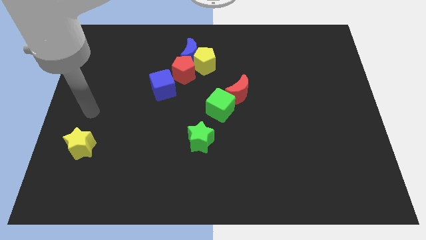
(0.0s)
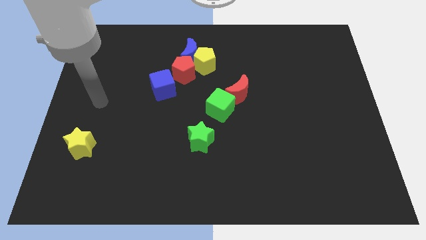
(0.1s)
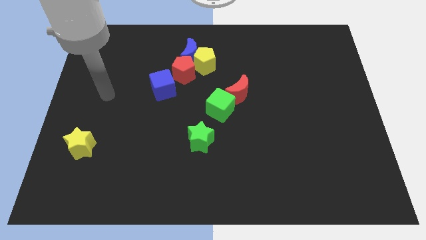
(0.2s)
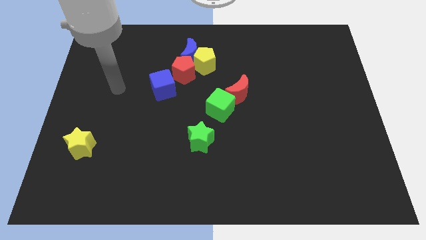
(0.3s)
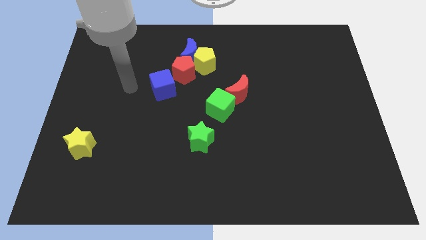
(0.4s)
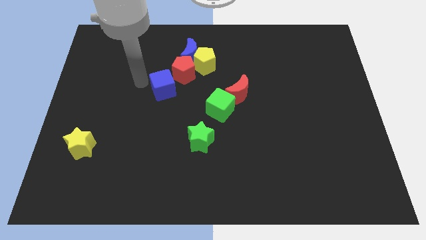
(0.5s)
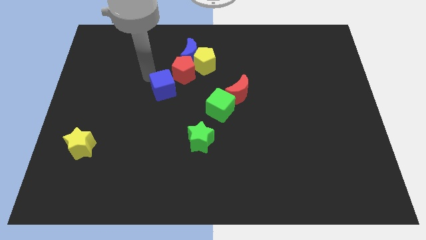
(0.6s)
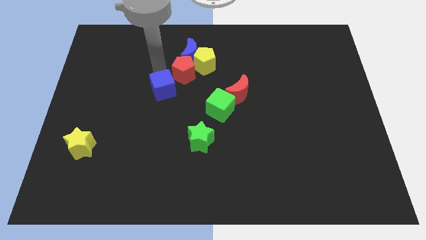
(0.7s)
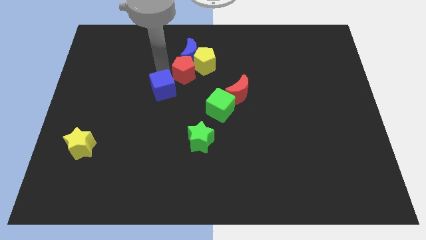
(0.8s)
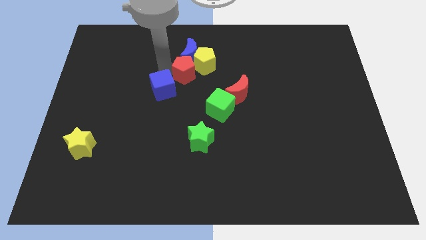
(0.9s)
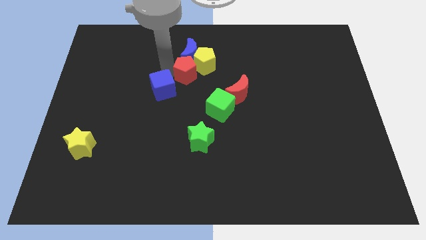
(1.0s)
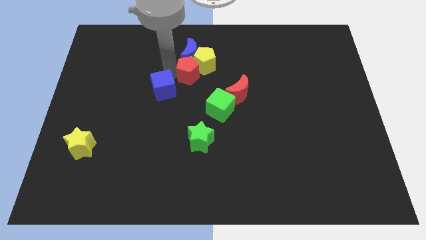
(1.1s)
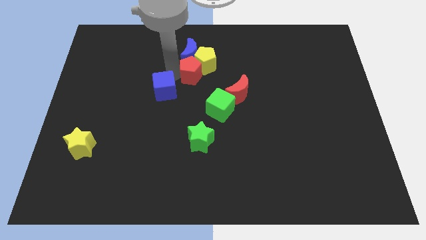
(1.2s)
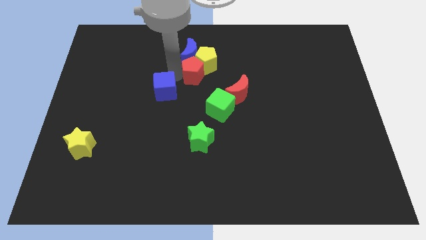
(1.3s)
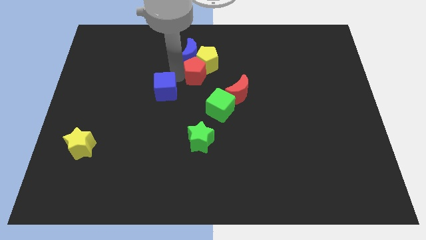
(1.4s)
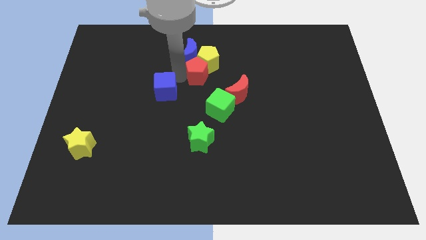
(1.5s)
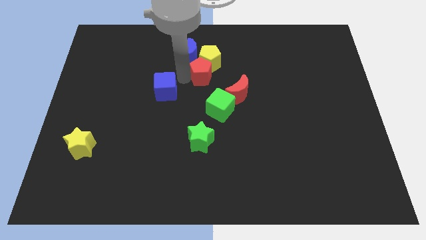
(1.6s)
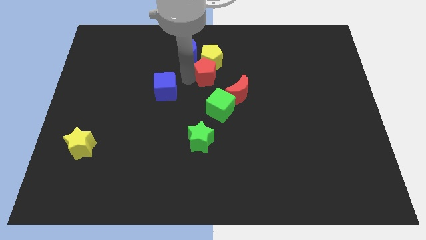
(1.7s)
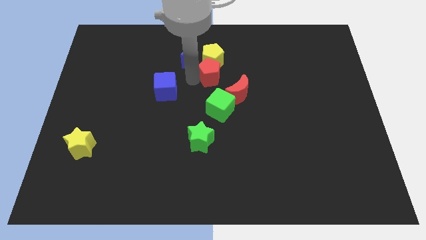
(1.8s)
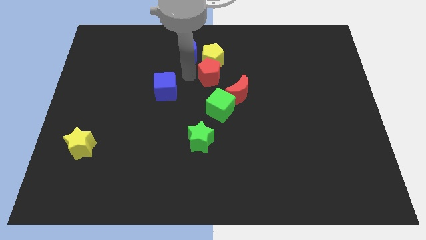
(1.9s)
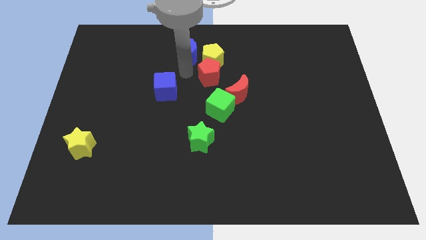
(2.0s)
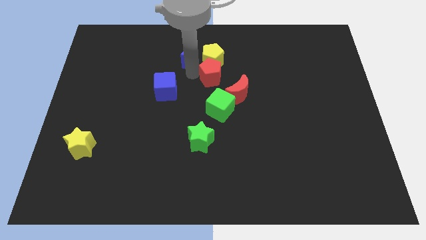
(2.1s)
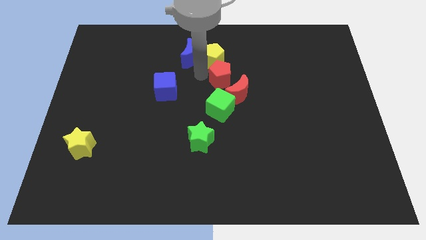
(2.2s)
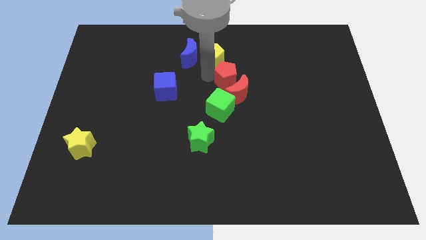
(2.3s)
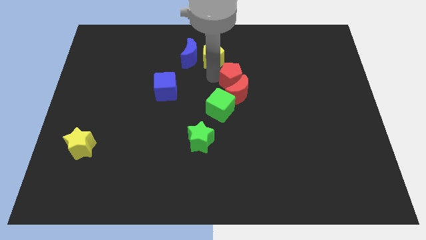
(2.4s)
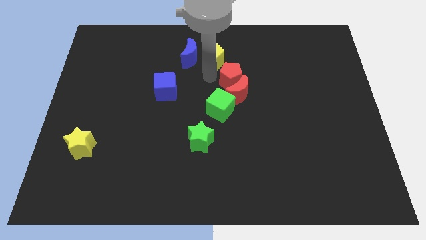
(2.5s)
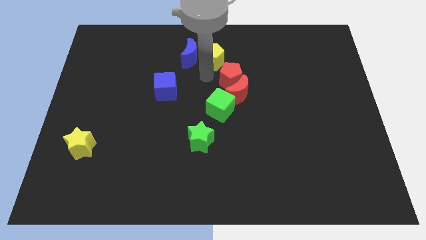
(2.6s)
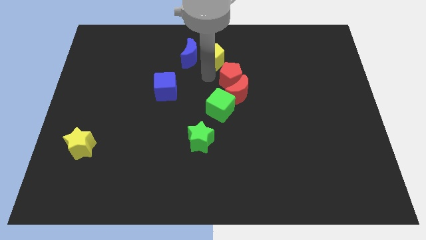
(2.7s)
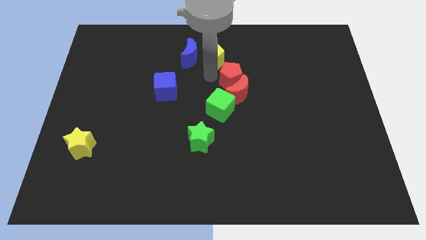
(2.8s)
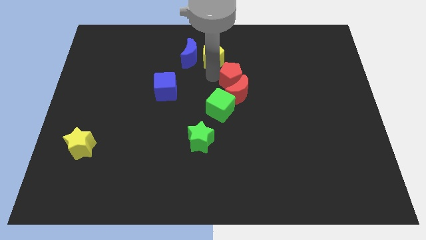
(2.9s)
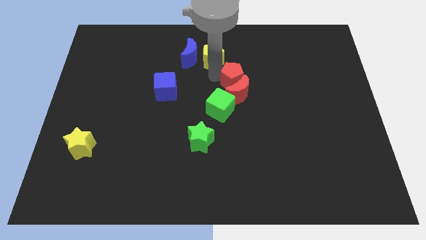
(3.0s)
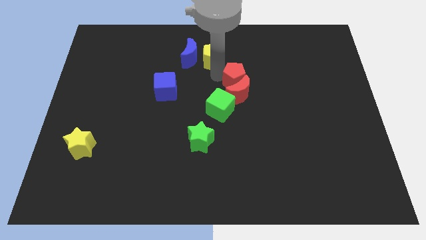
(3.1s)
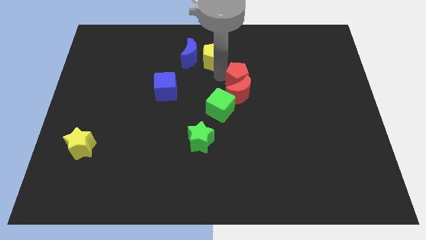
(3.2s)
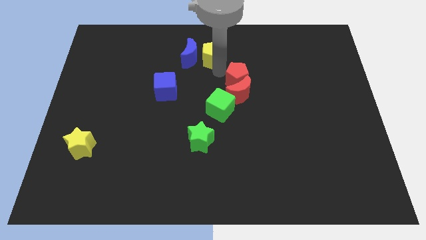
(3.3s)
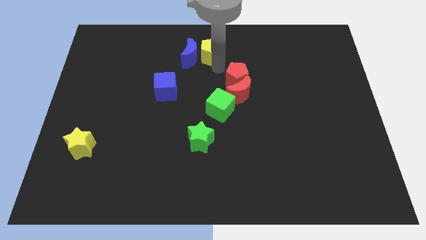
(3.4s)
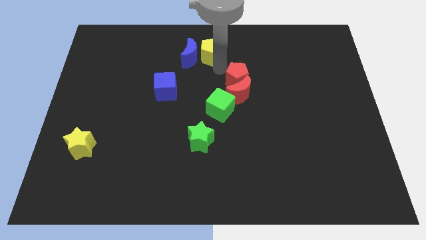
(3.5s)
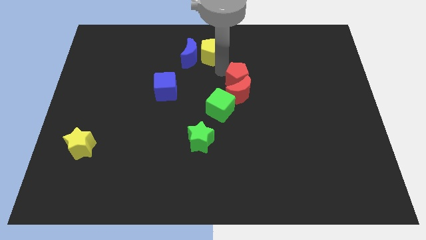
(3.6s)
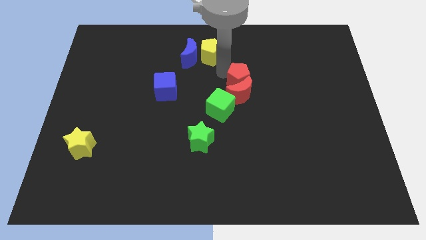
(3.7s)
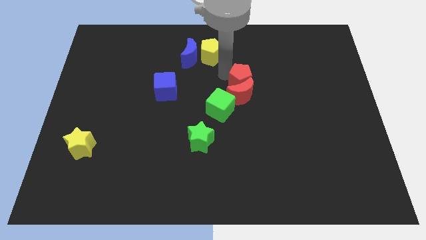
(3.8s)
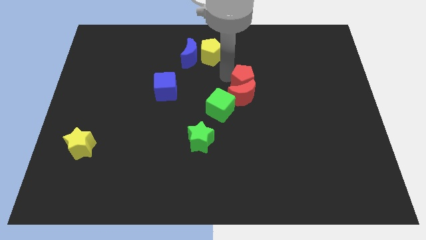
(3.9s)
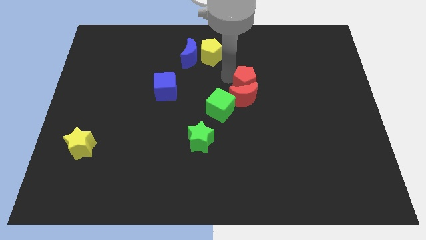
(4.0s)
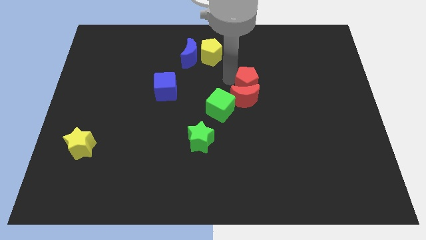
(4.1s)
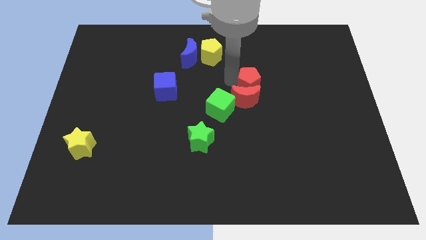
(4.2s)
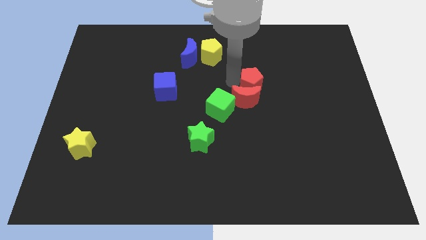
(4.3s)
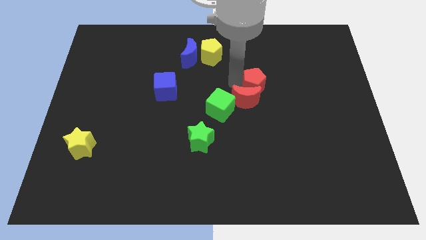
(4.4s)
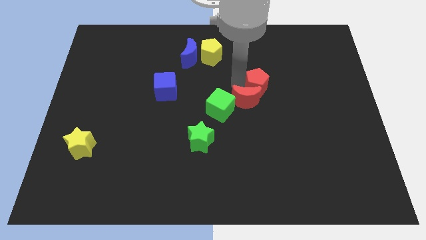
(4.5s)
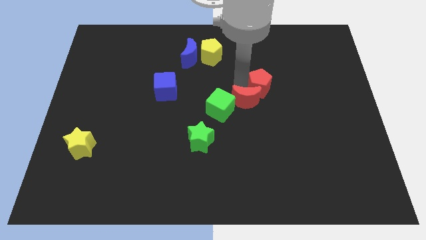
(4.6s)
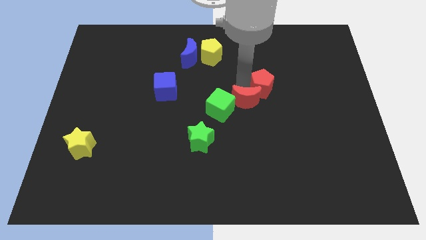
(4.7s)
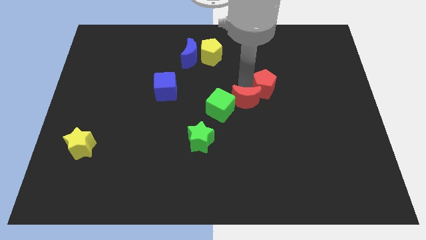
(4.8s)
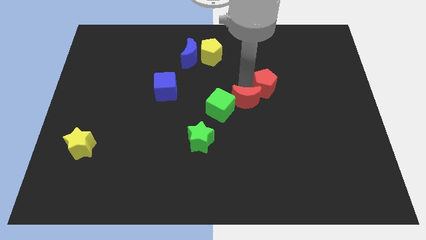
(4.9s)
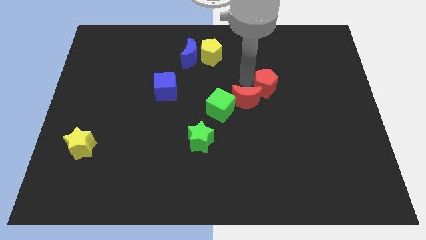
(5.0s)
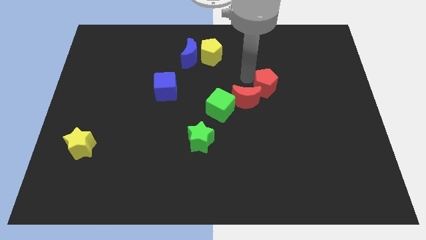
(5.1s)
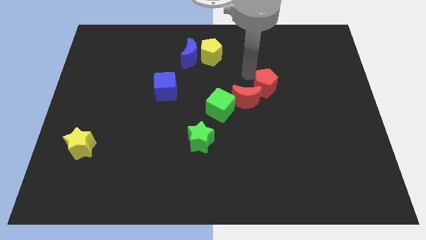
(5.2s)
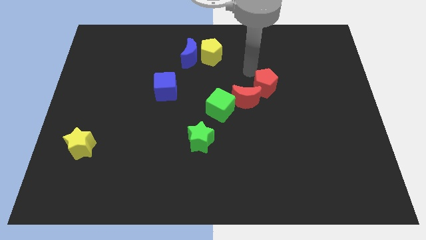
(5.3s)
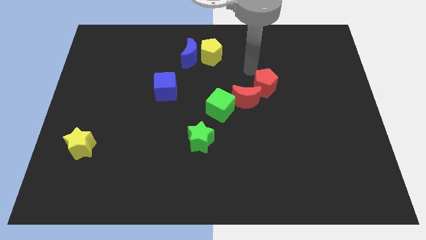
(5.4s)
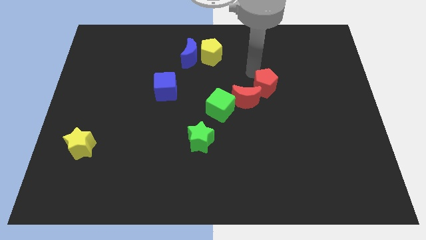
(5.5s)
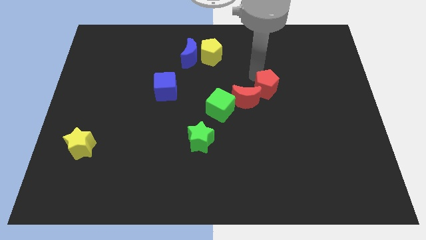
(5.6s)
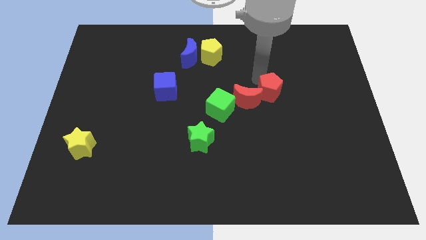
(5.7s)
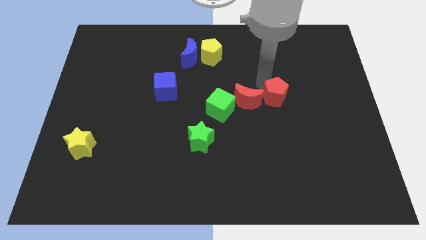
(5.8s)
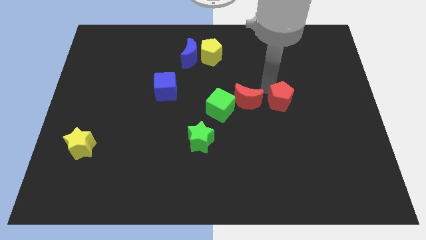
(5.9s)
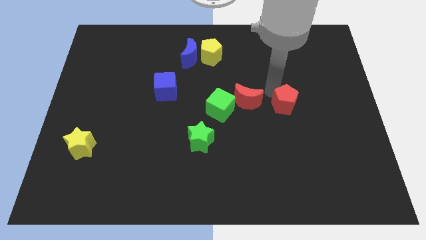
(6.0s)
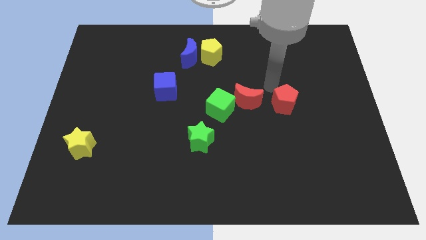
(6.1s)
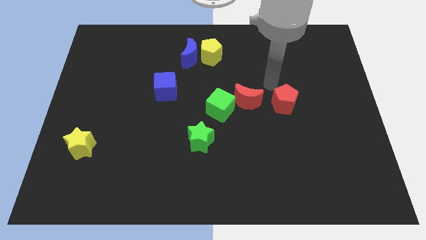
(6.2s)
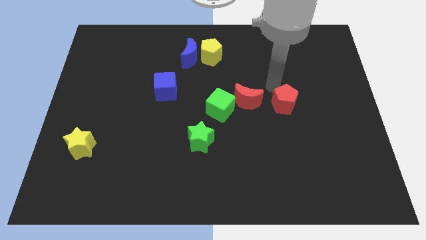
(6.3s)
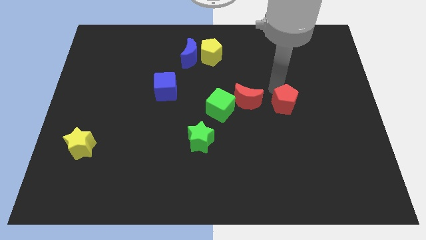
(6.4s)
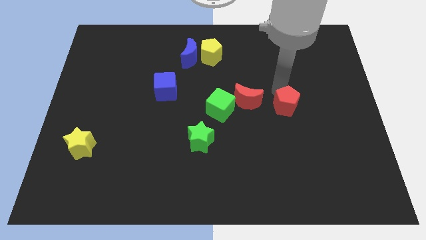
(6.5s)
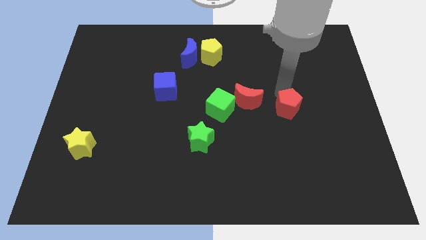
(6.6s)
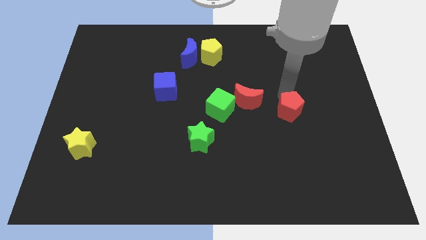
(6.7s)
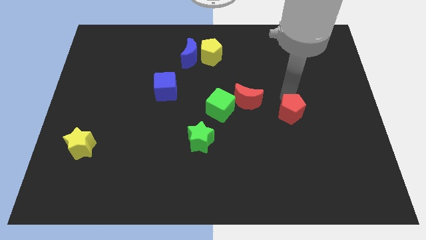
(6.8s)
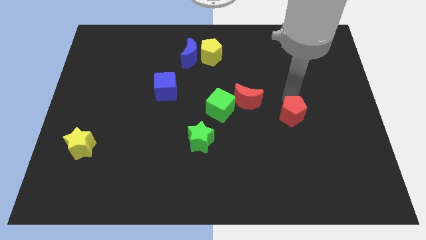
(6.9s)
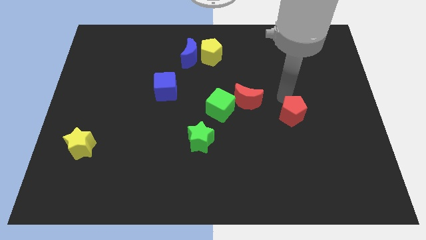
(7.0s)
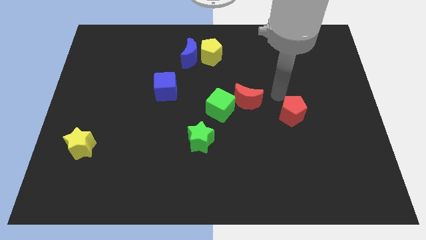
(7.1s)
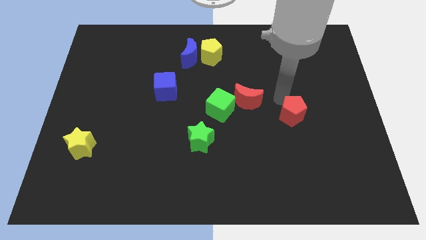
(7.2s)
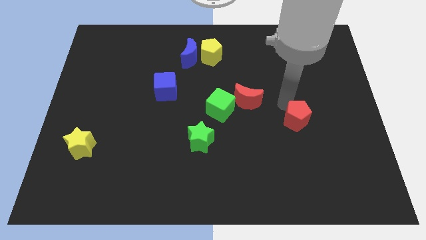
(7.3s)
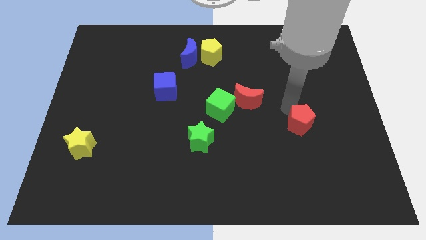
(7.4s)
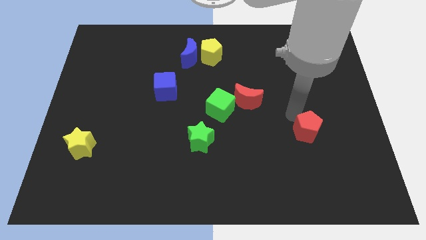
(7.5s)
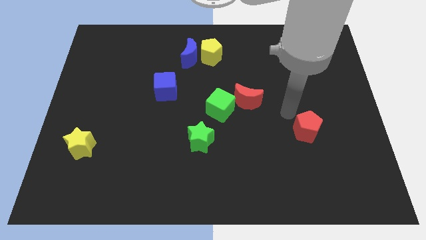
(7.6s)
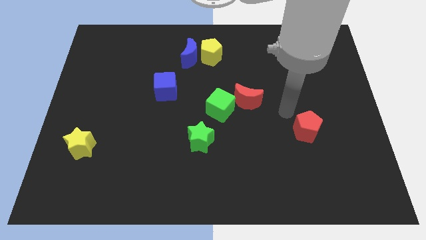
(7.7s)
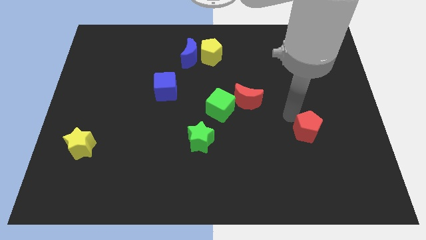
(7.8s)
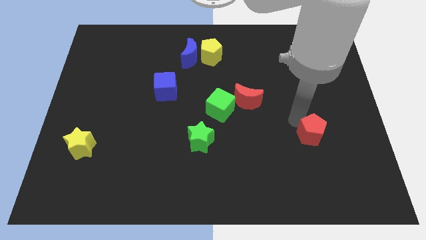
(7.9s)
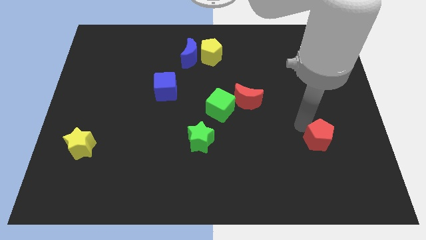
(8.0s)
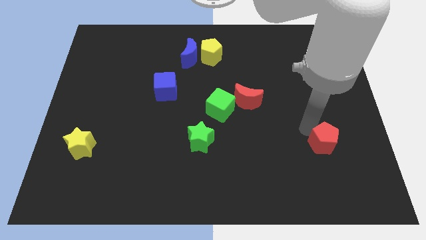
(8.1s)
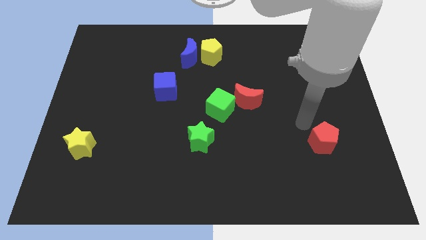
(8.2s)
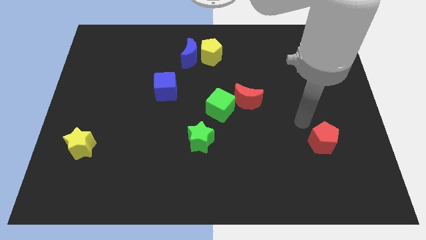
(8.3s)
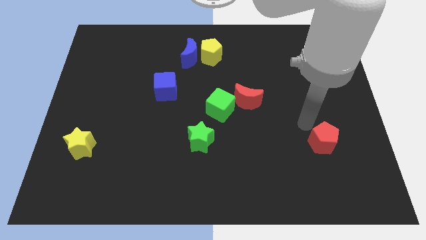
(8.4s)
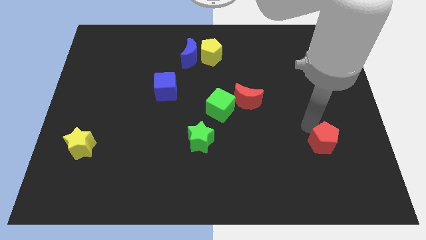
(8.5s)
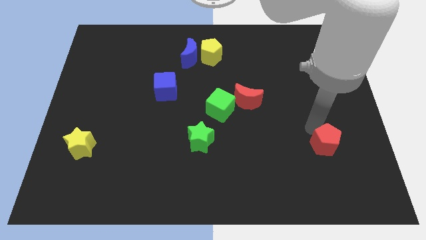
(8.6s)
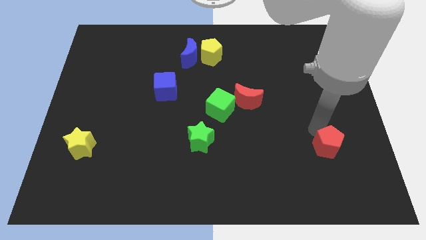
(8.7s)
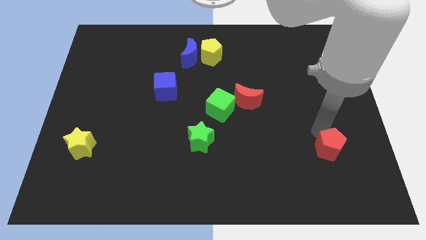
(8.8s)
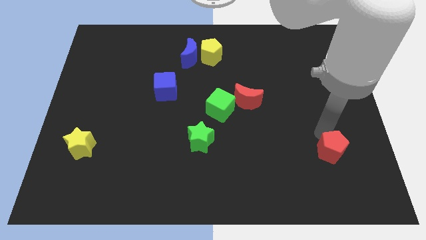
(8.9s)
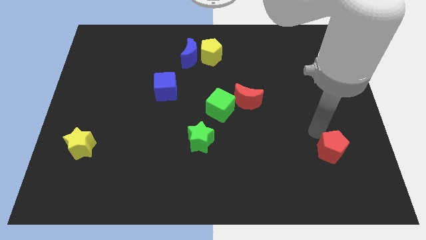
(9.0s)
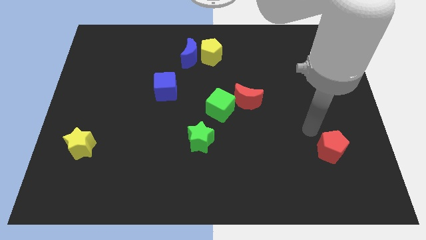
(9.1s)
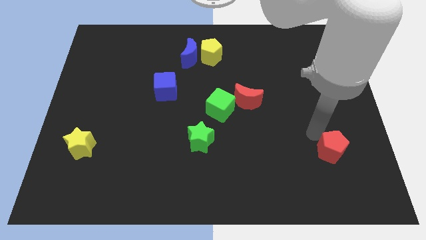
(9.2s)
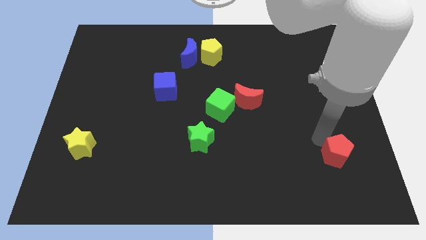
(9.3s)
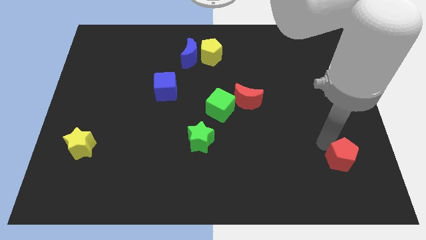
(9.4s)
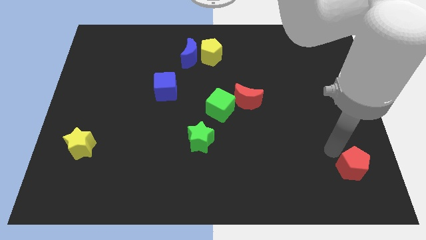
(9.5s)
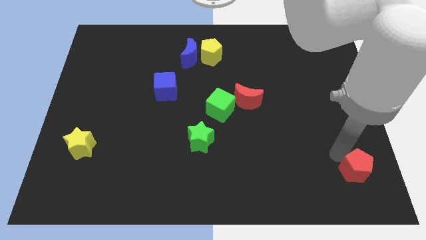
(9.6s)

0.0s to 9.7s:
put the red pentagon to the bottom right
